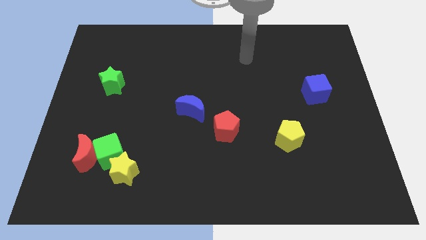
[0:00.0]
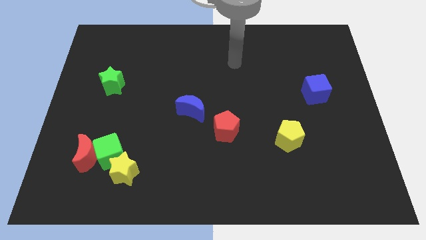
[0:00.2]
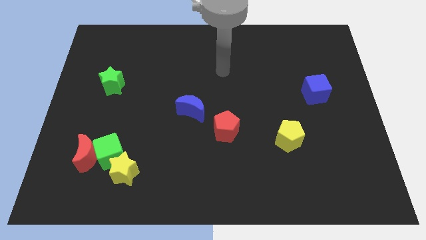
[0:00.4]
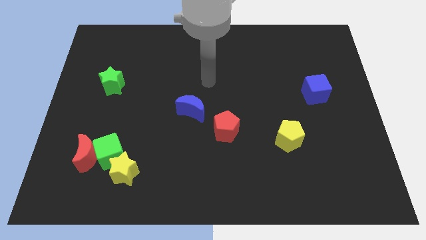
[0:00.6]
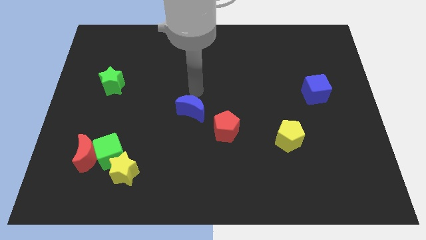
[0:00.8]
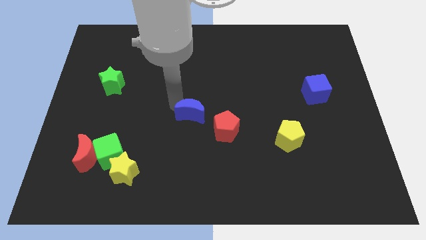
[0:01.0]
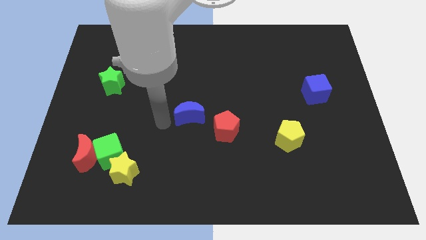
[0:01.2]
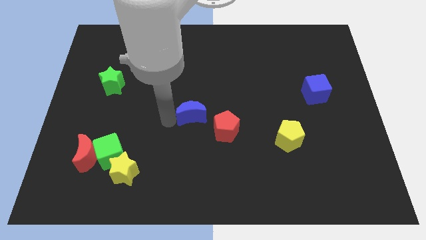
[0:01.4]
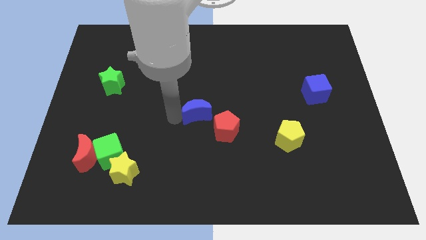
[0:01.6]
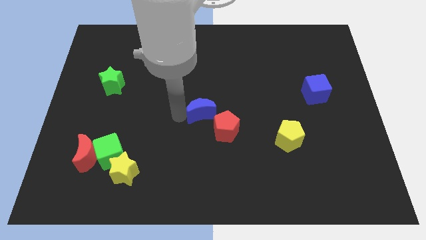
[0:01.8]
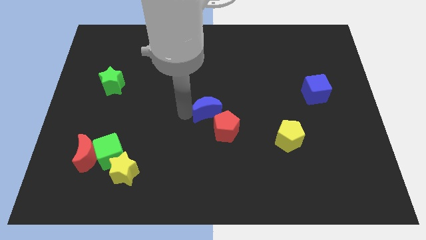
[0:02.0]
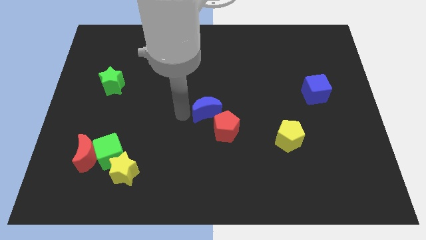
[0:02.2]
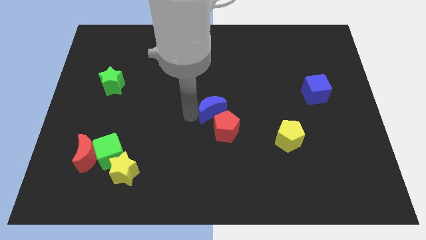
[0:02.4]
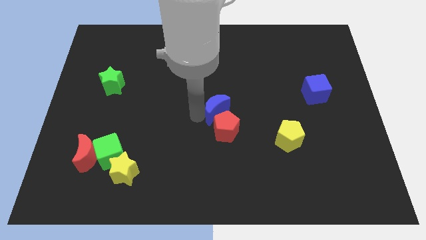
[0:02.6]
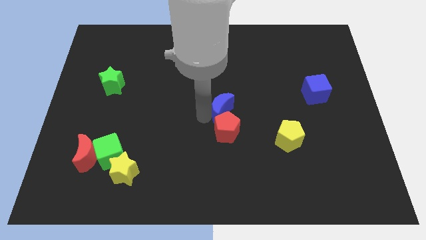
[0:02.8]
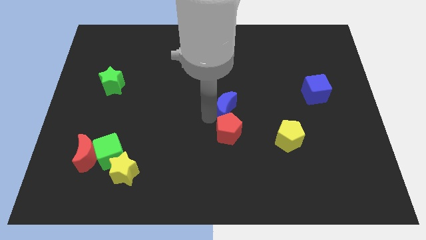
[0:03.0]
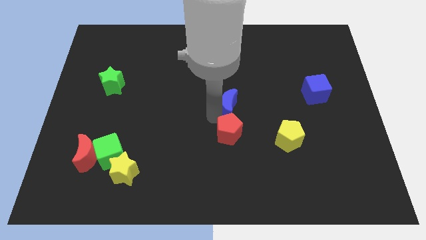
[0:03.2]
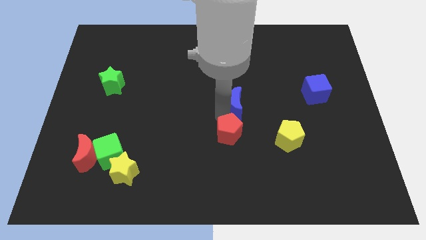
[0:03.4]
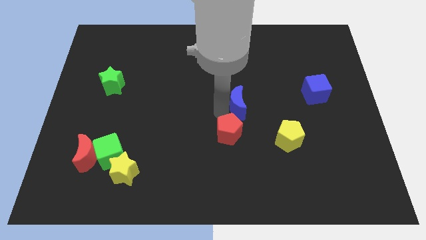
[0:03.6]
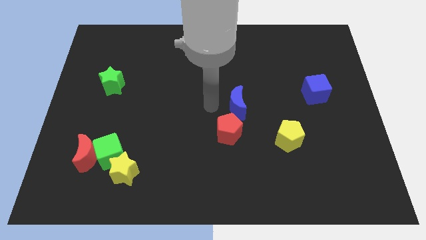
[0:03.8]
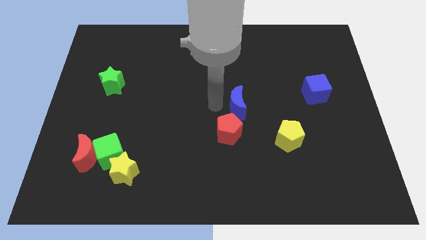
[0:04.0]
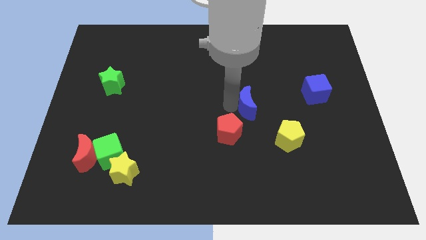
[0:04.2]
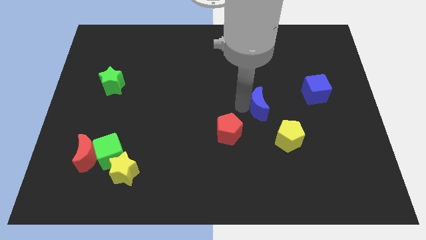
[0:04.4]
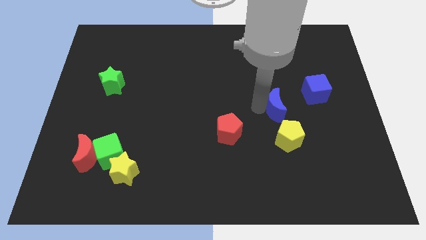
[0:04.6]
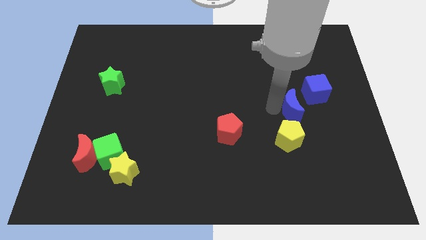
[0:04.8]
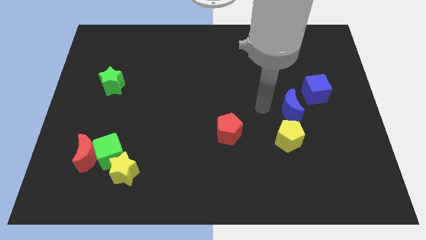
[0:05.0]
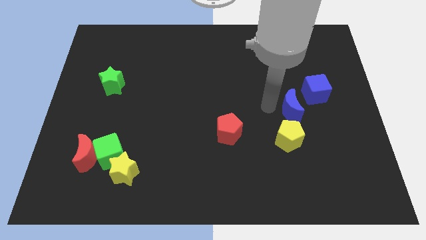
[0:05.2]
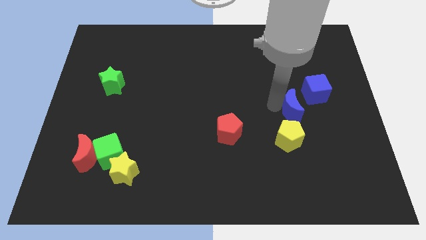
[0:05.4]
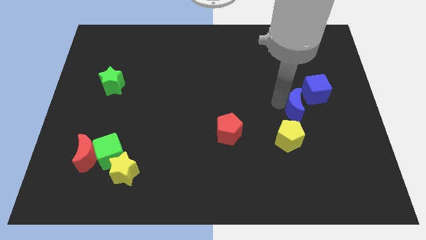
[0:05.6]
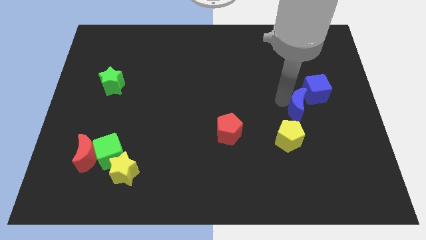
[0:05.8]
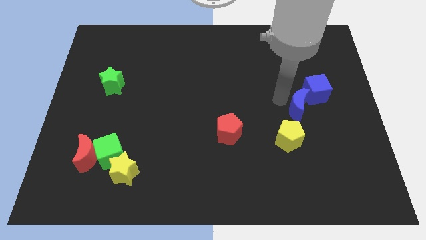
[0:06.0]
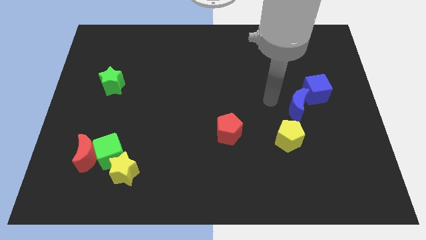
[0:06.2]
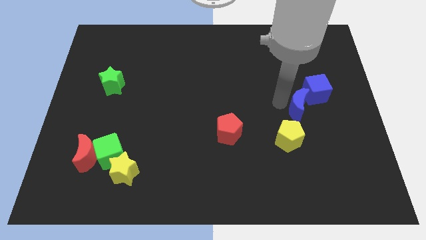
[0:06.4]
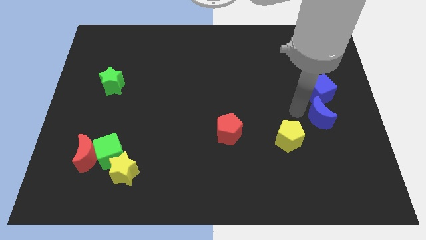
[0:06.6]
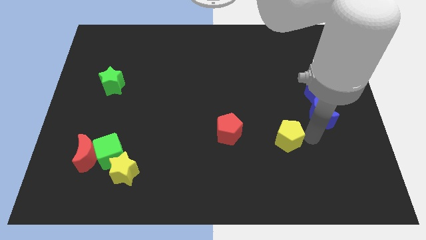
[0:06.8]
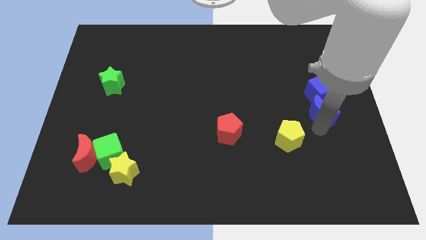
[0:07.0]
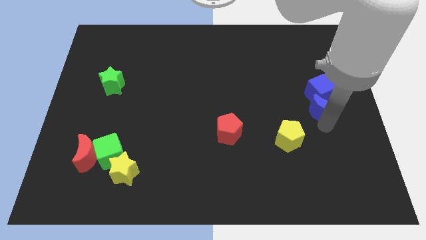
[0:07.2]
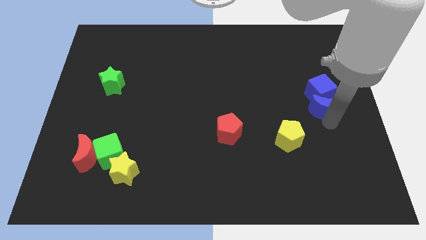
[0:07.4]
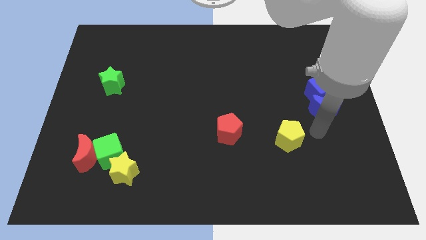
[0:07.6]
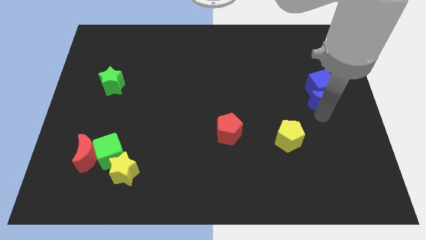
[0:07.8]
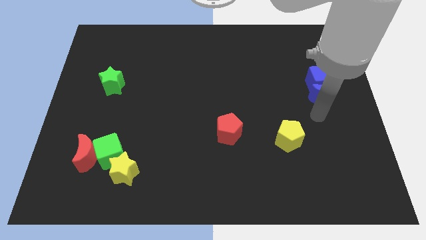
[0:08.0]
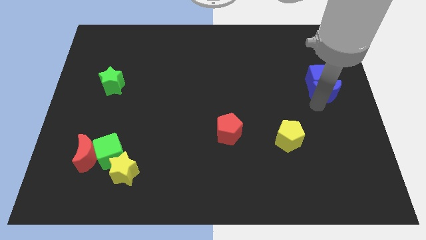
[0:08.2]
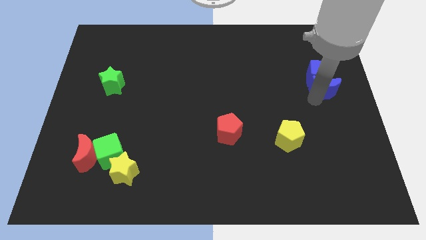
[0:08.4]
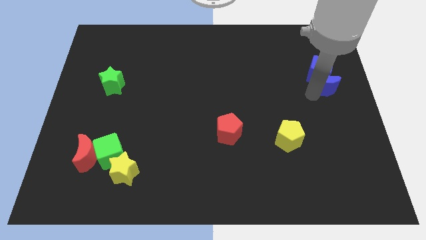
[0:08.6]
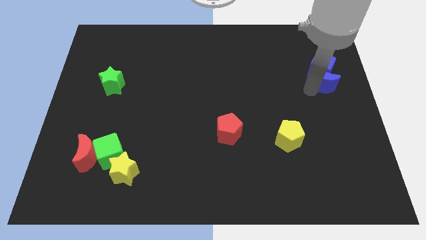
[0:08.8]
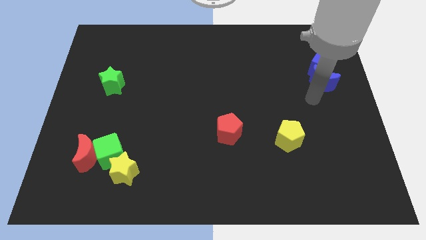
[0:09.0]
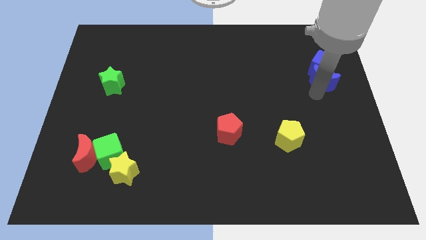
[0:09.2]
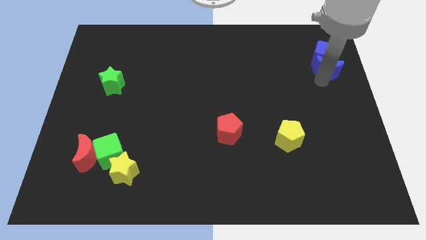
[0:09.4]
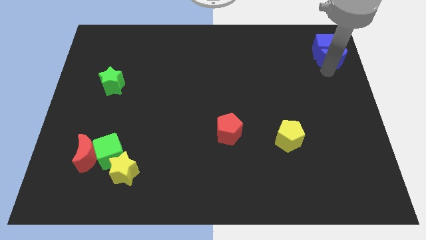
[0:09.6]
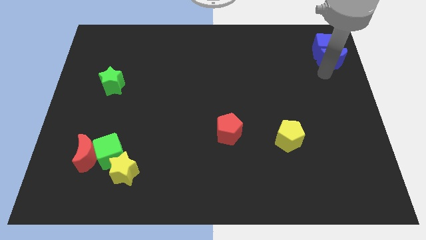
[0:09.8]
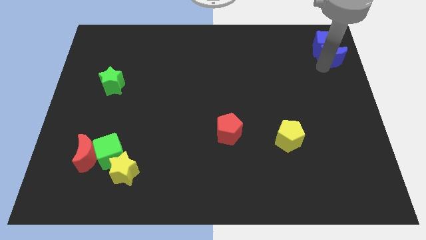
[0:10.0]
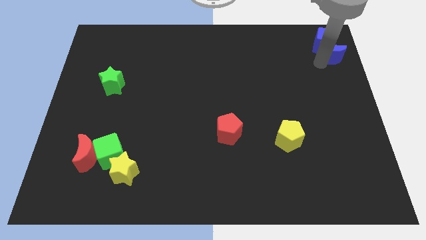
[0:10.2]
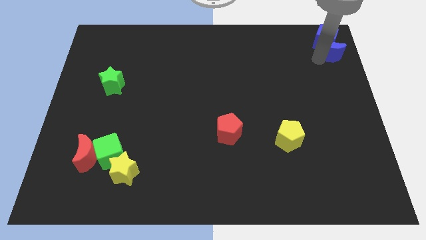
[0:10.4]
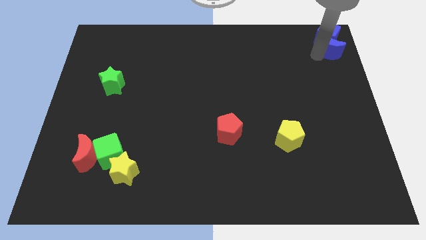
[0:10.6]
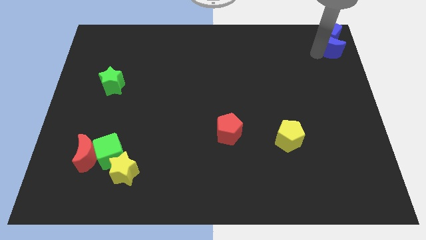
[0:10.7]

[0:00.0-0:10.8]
slide the blue moon to the top right
